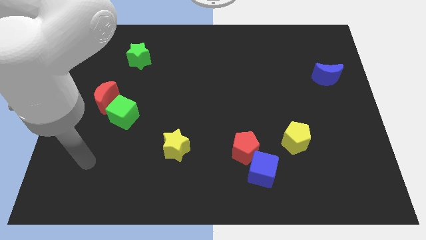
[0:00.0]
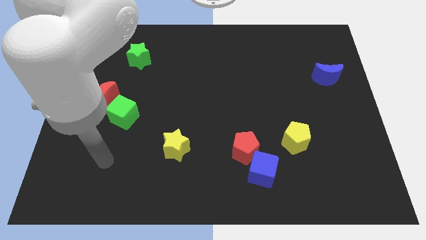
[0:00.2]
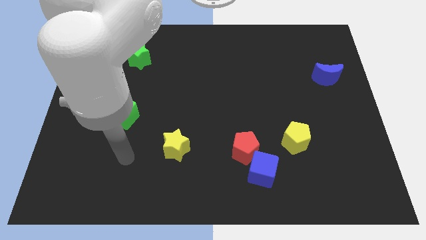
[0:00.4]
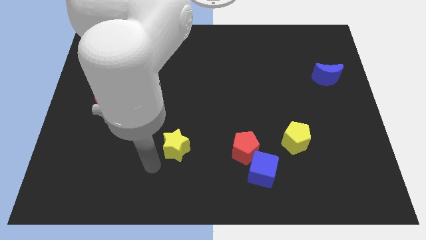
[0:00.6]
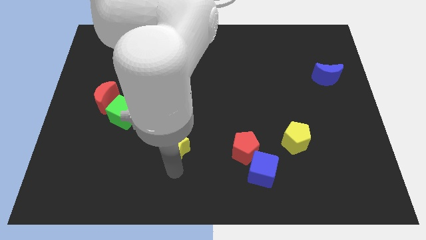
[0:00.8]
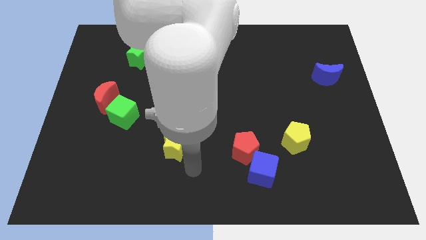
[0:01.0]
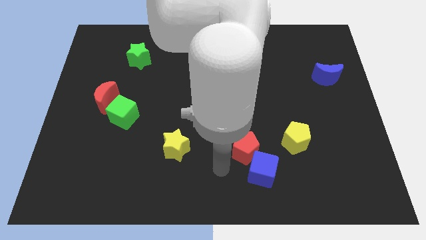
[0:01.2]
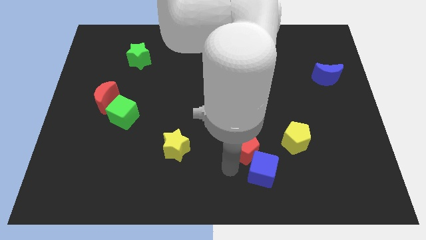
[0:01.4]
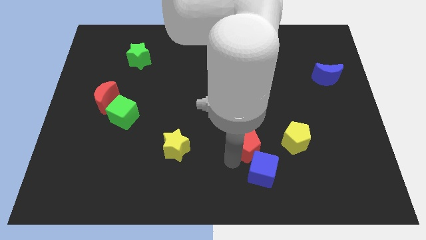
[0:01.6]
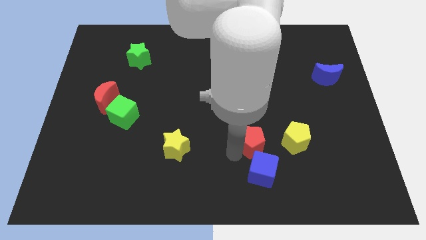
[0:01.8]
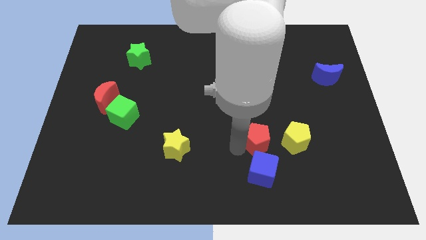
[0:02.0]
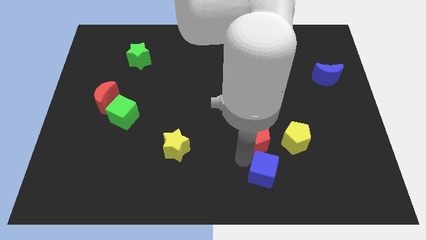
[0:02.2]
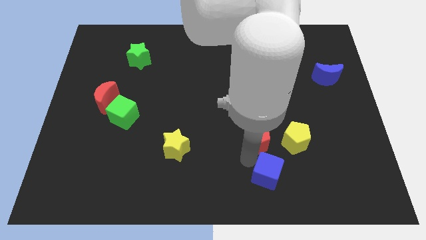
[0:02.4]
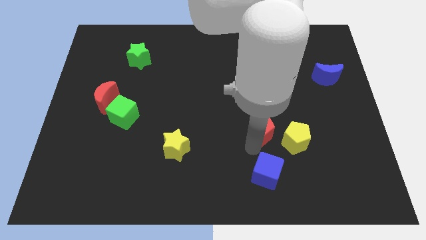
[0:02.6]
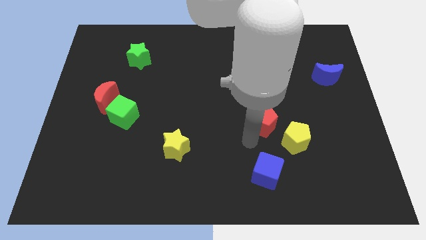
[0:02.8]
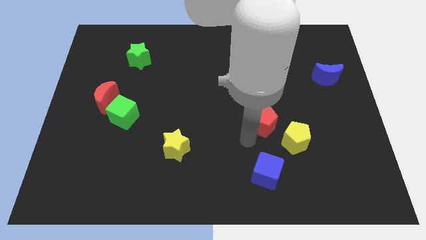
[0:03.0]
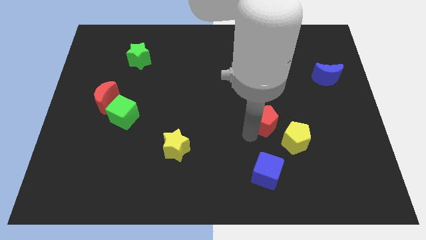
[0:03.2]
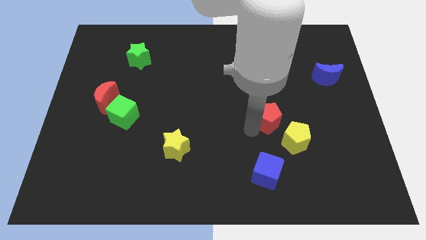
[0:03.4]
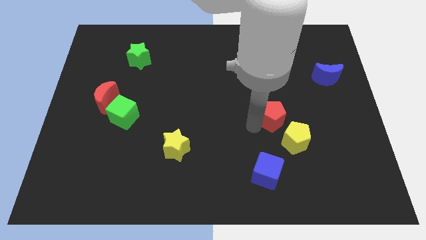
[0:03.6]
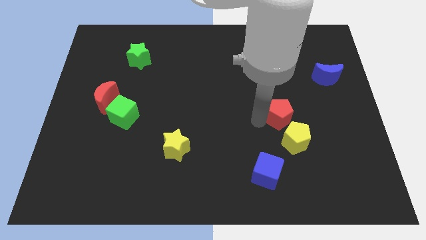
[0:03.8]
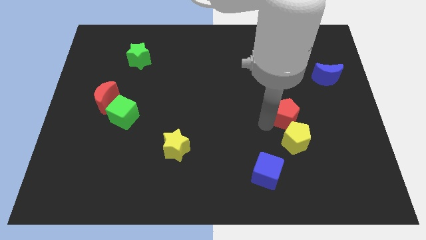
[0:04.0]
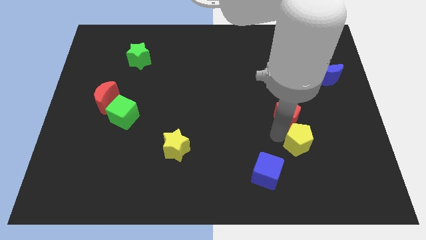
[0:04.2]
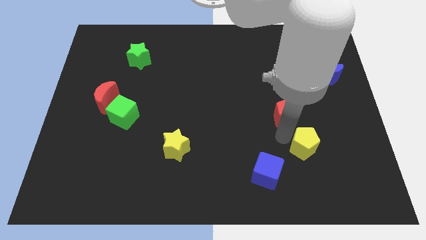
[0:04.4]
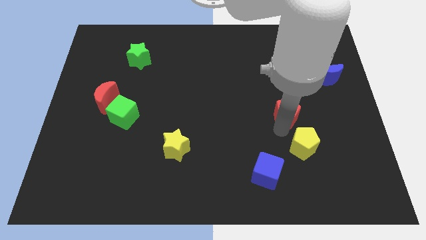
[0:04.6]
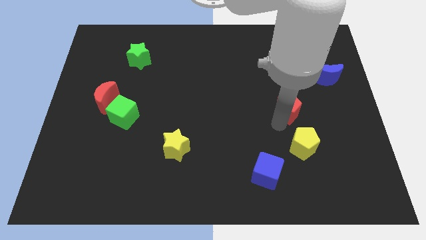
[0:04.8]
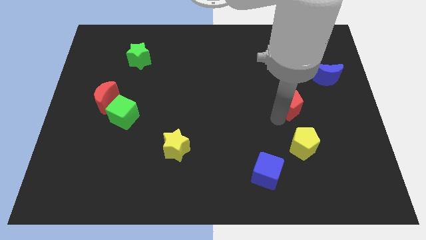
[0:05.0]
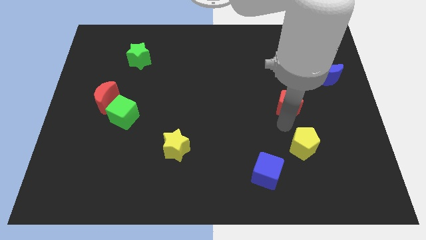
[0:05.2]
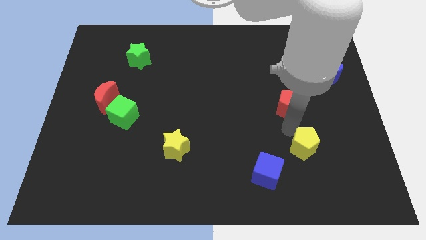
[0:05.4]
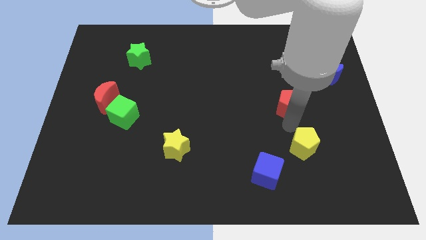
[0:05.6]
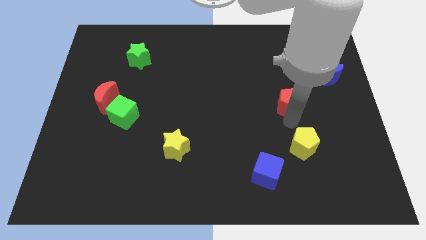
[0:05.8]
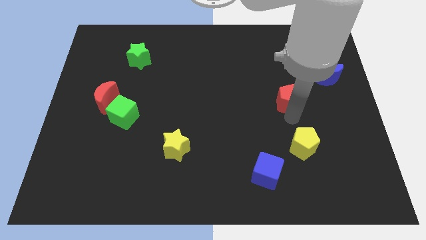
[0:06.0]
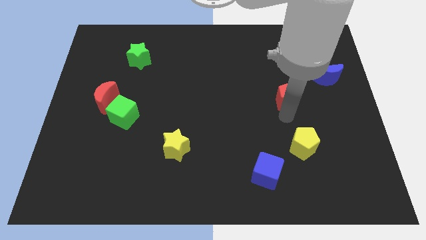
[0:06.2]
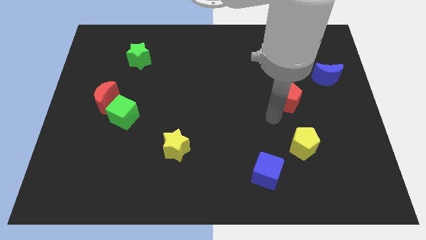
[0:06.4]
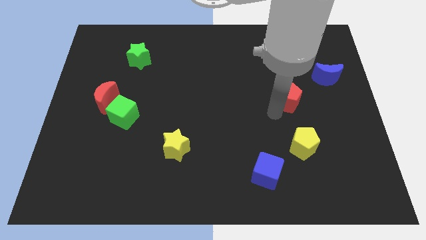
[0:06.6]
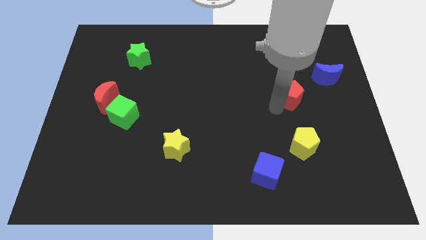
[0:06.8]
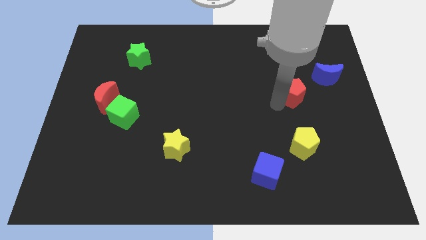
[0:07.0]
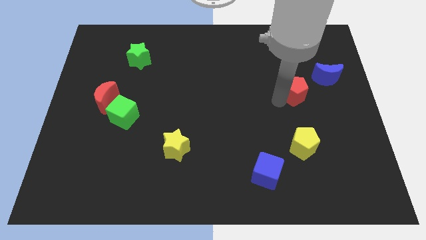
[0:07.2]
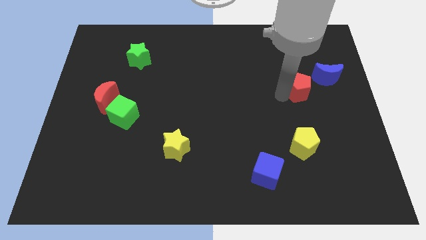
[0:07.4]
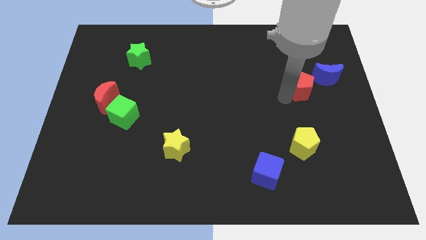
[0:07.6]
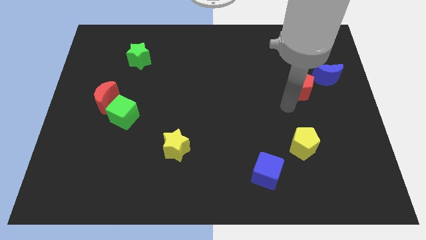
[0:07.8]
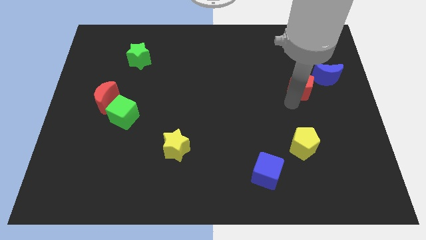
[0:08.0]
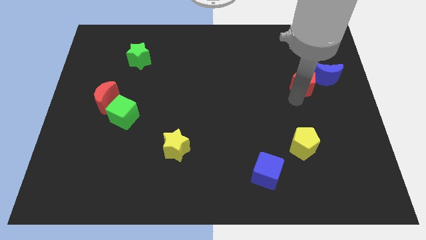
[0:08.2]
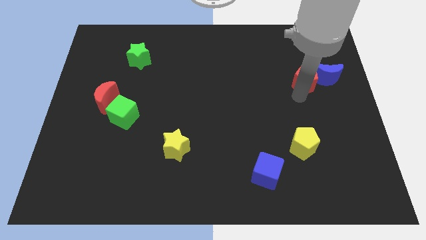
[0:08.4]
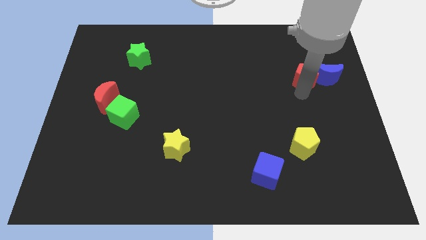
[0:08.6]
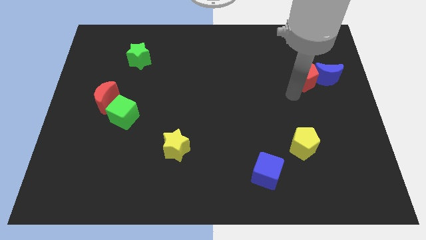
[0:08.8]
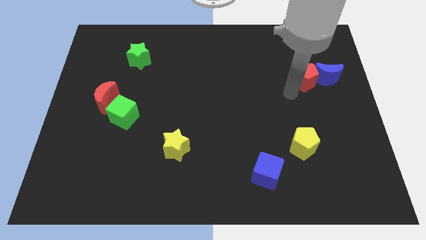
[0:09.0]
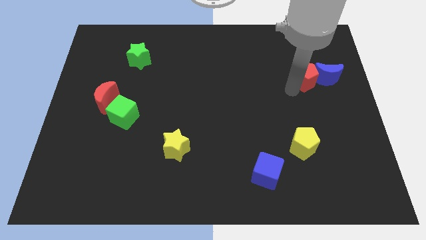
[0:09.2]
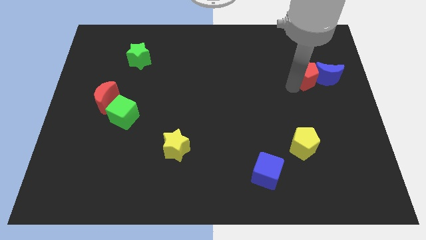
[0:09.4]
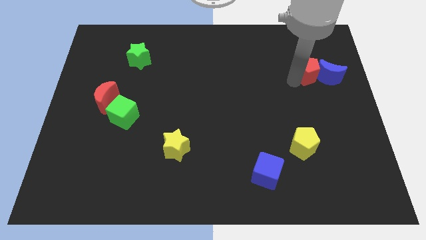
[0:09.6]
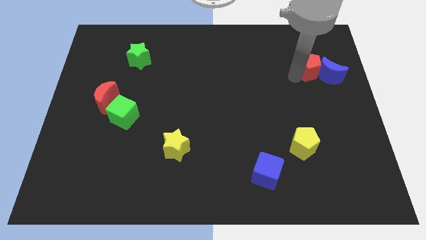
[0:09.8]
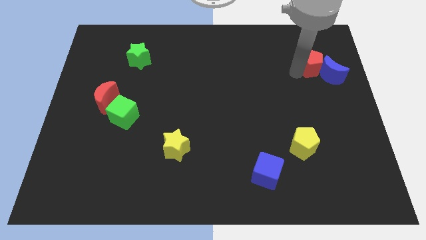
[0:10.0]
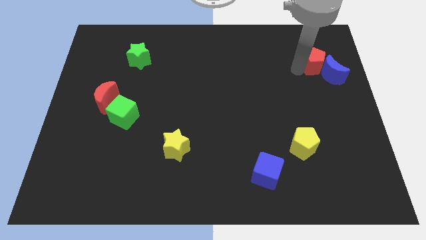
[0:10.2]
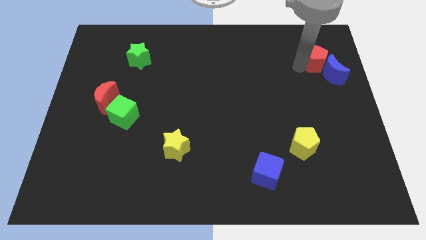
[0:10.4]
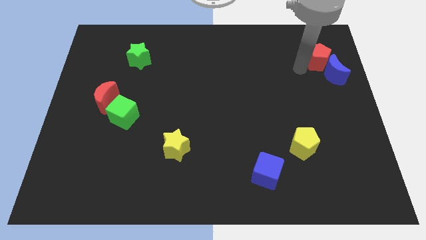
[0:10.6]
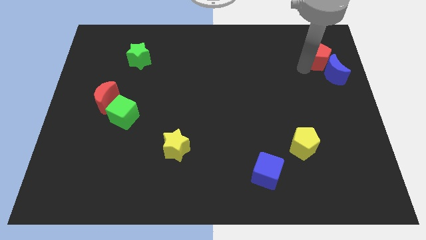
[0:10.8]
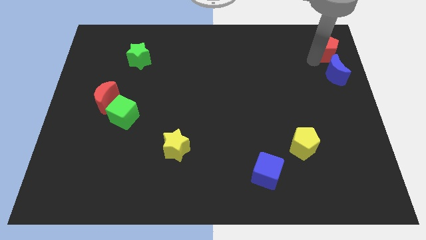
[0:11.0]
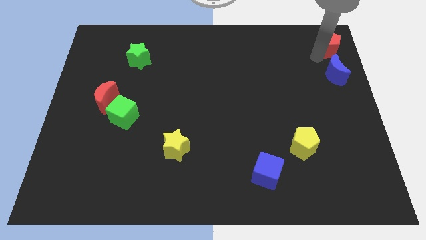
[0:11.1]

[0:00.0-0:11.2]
put the red pentagon to the top right corner

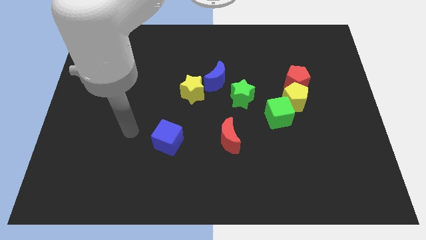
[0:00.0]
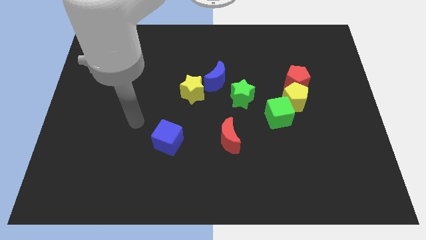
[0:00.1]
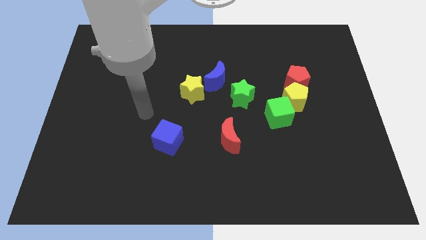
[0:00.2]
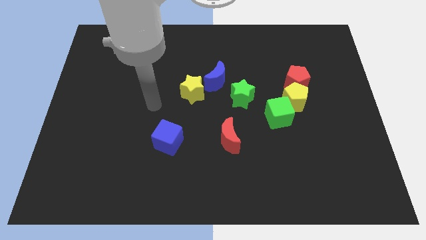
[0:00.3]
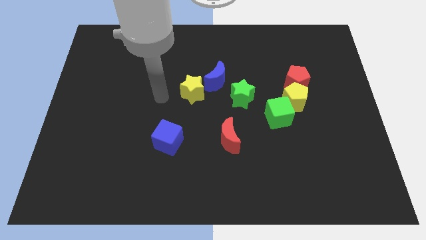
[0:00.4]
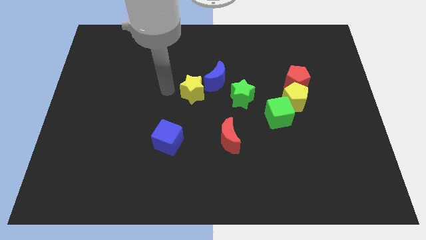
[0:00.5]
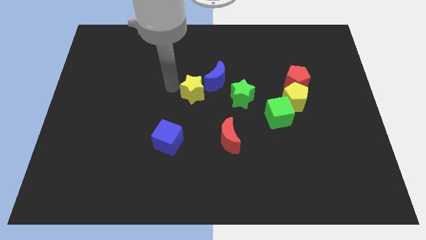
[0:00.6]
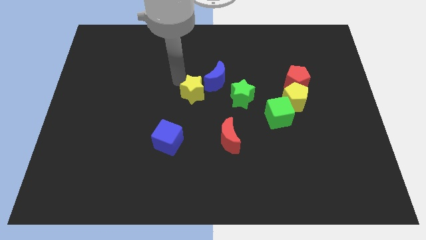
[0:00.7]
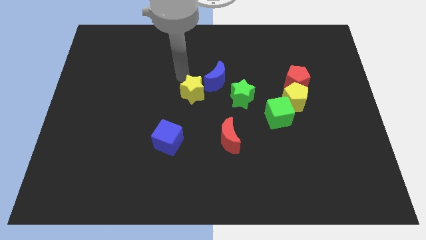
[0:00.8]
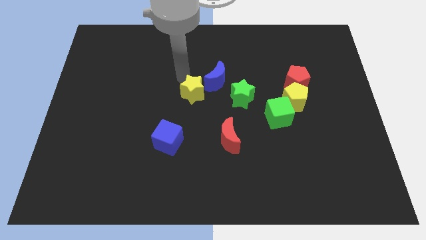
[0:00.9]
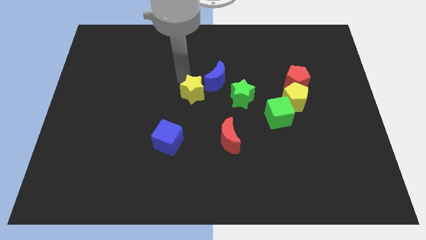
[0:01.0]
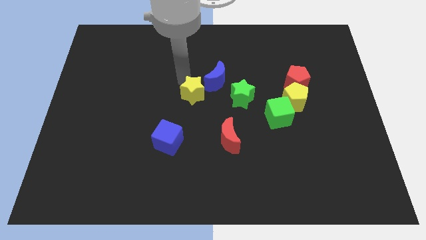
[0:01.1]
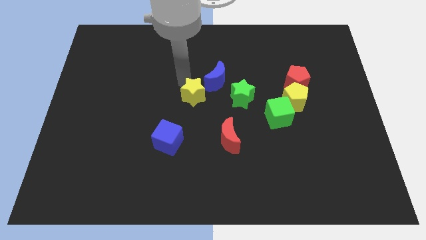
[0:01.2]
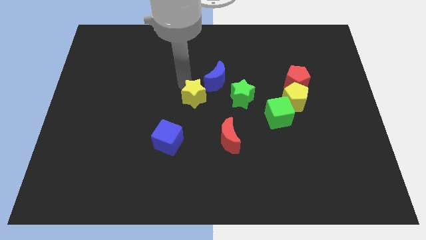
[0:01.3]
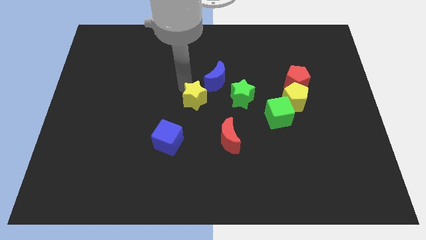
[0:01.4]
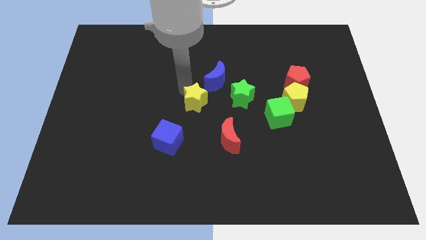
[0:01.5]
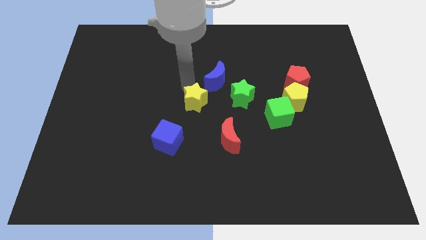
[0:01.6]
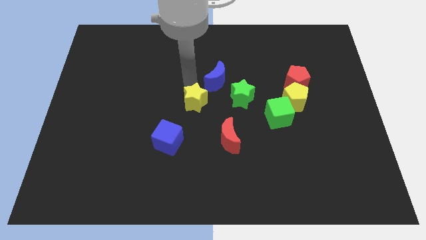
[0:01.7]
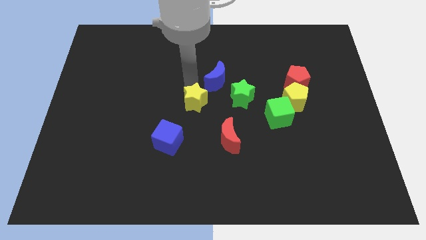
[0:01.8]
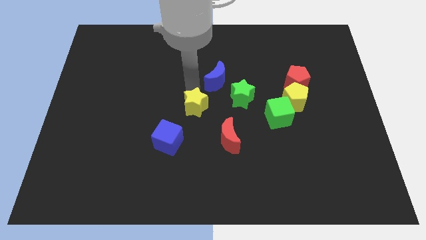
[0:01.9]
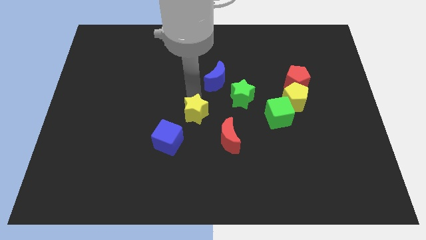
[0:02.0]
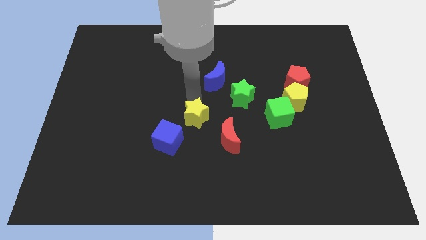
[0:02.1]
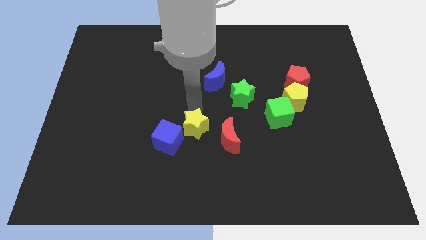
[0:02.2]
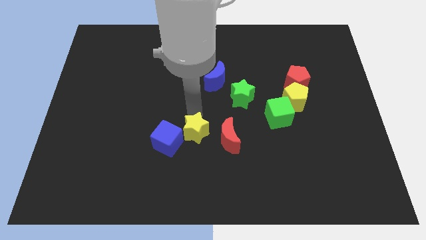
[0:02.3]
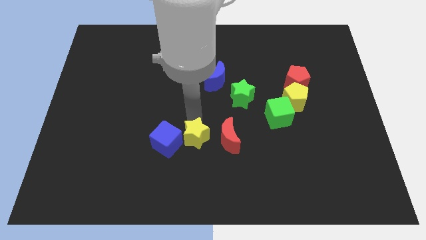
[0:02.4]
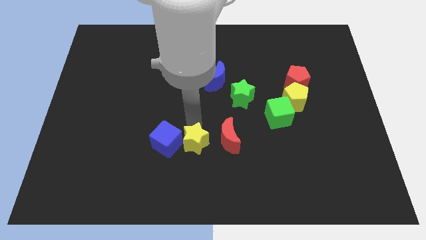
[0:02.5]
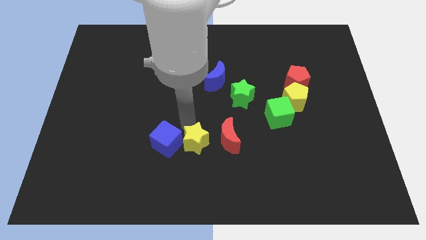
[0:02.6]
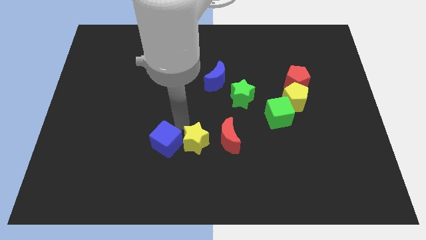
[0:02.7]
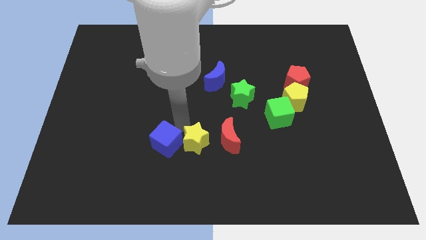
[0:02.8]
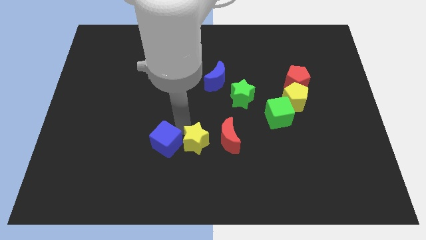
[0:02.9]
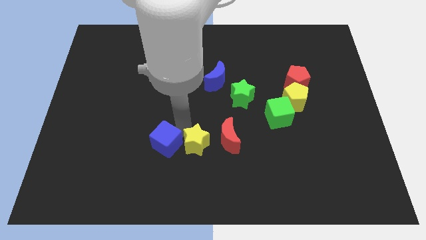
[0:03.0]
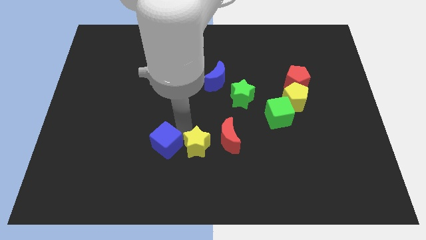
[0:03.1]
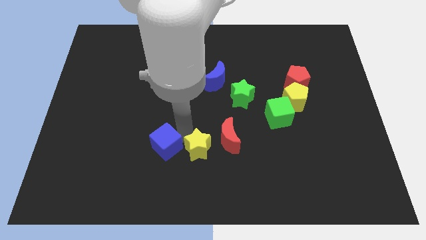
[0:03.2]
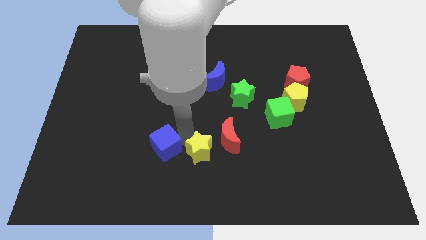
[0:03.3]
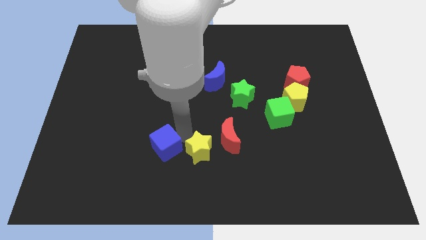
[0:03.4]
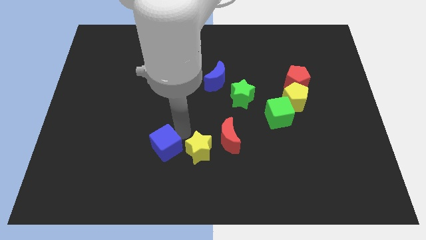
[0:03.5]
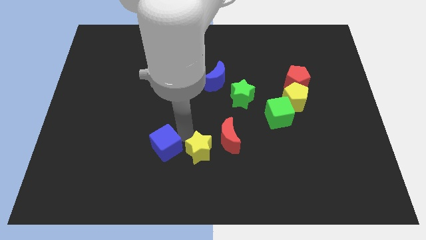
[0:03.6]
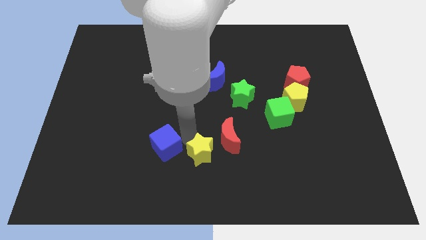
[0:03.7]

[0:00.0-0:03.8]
slide the yellow star to the bottom
